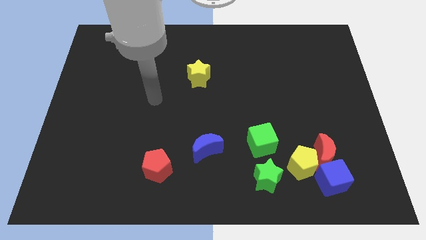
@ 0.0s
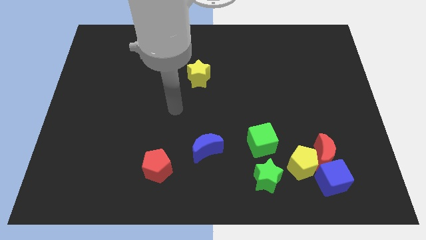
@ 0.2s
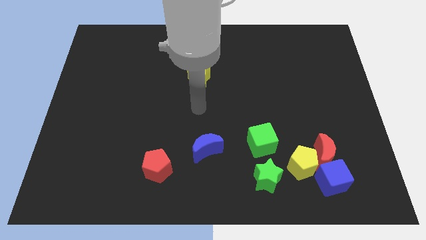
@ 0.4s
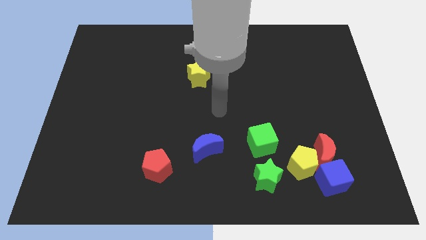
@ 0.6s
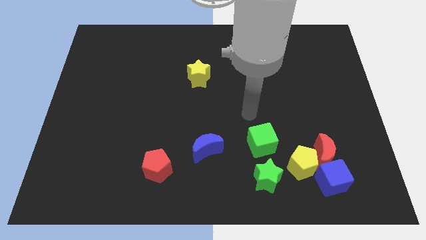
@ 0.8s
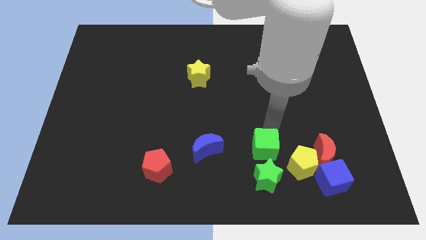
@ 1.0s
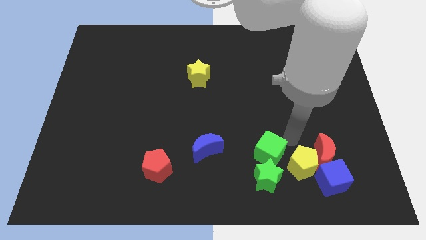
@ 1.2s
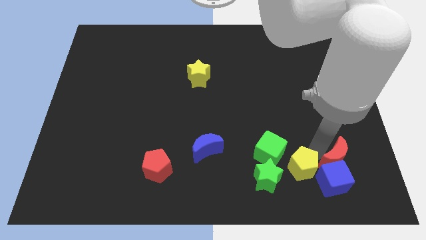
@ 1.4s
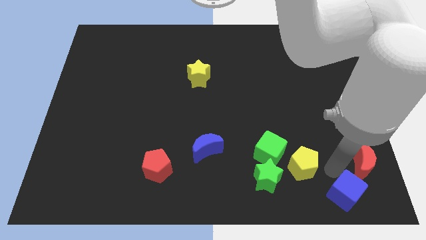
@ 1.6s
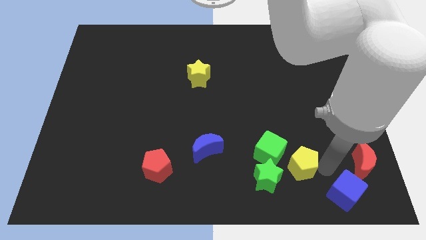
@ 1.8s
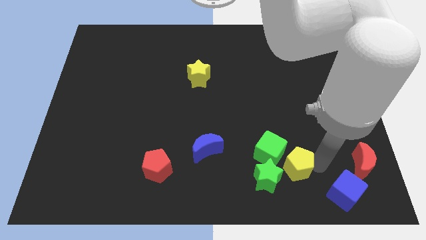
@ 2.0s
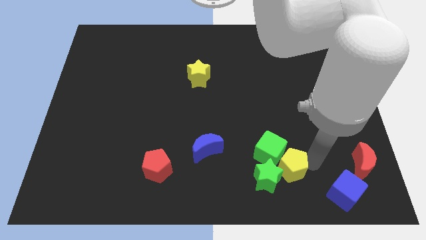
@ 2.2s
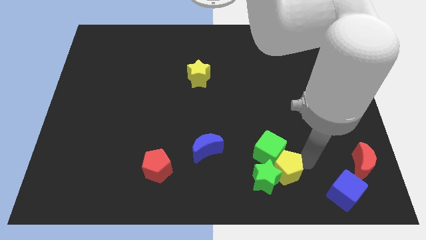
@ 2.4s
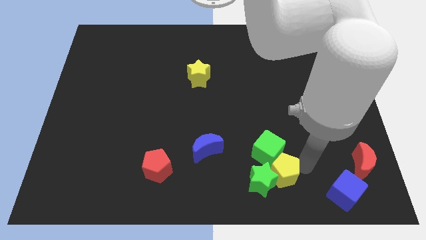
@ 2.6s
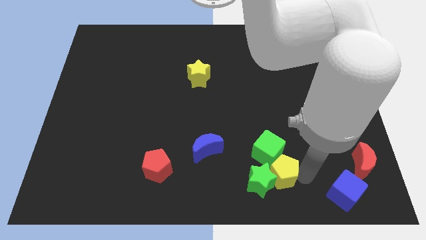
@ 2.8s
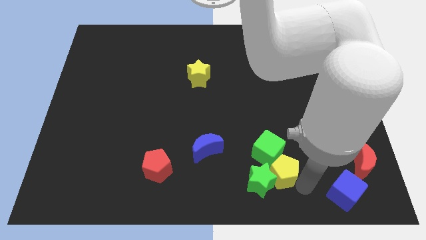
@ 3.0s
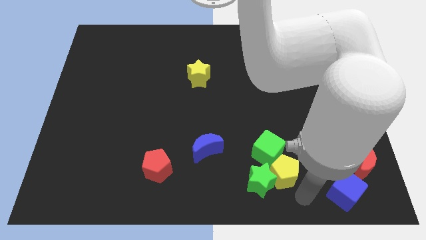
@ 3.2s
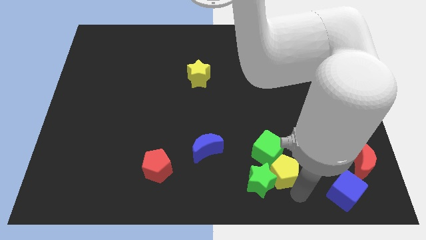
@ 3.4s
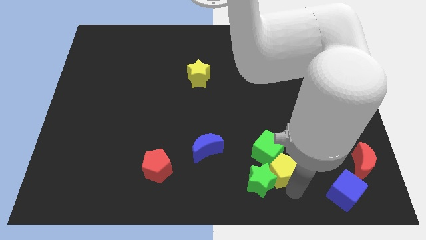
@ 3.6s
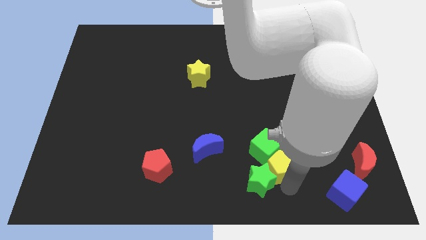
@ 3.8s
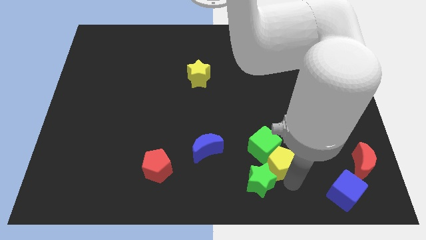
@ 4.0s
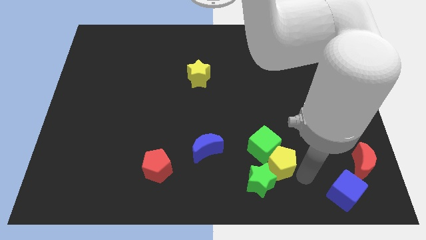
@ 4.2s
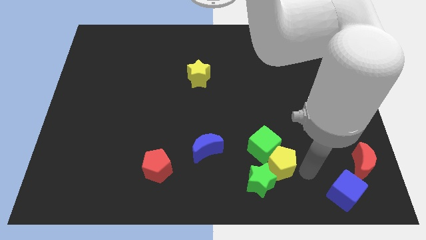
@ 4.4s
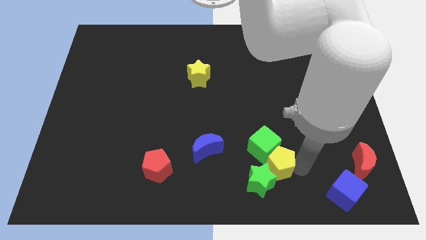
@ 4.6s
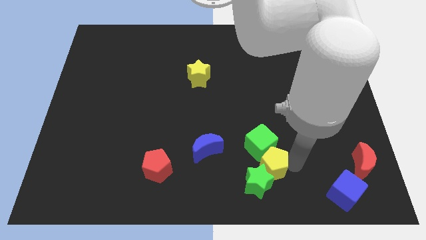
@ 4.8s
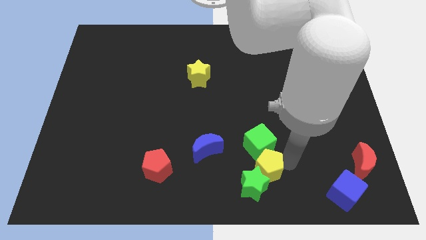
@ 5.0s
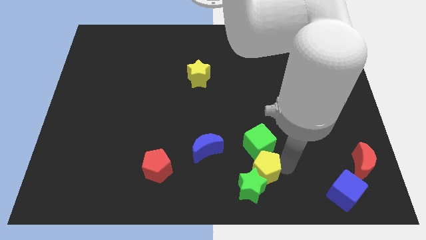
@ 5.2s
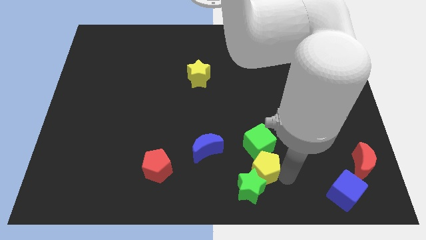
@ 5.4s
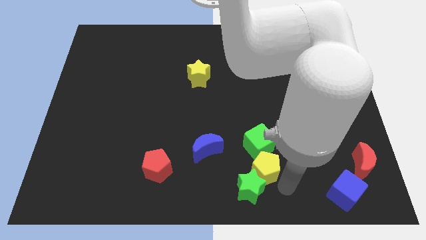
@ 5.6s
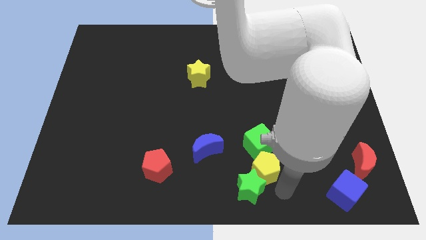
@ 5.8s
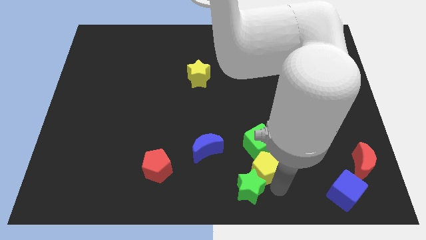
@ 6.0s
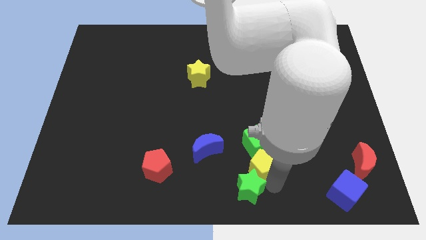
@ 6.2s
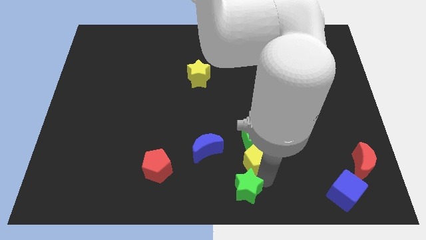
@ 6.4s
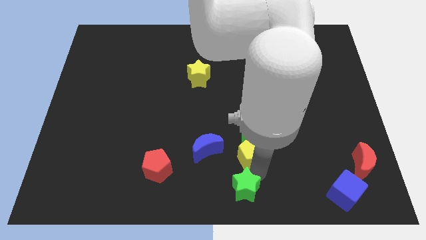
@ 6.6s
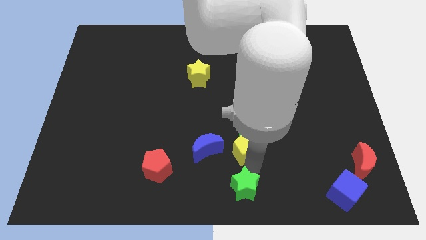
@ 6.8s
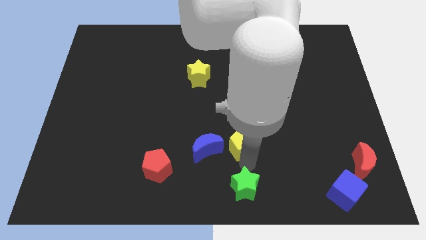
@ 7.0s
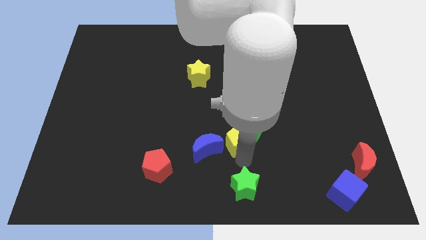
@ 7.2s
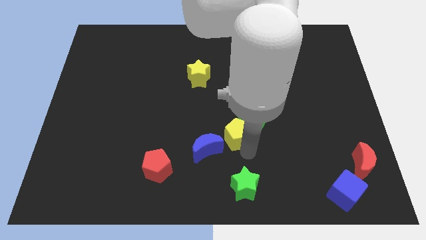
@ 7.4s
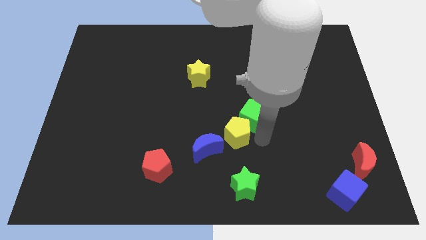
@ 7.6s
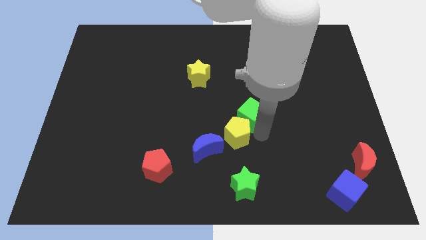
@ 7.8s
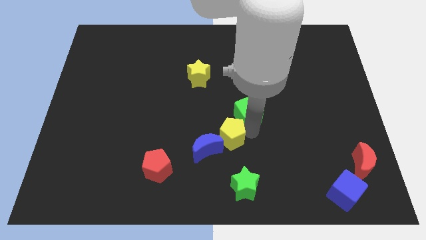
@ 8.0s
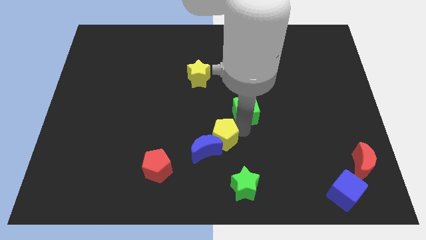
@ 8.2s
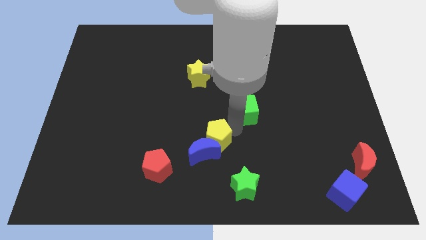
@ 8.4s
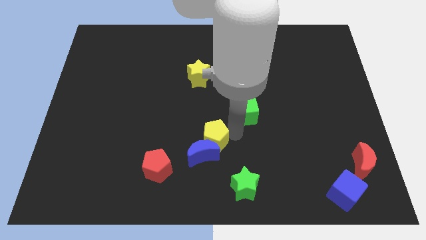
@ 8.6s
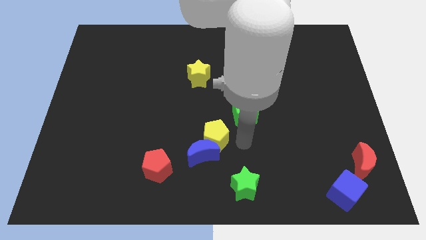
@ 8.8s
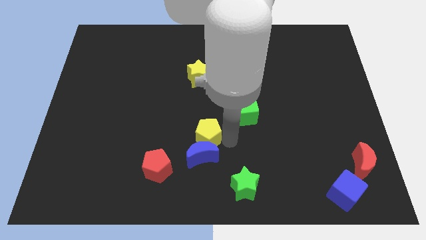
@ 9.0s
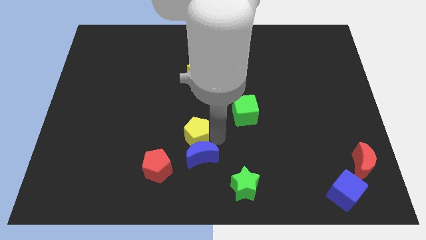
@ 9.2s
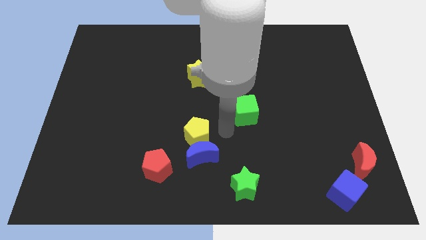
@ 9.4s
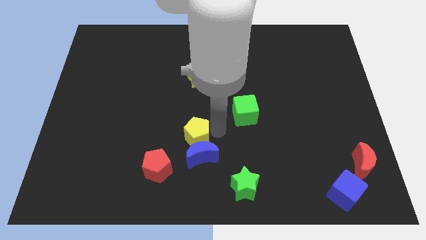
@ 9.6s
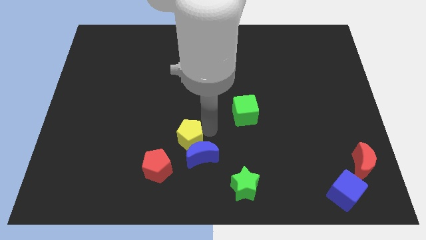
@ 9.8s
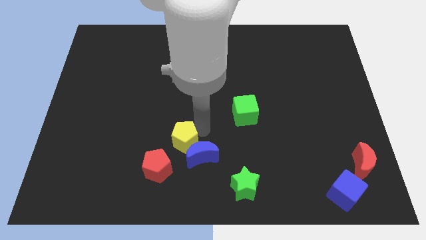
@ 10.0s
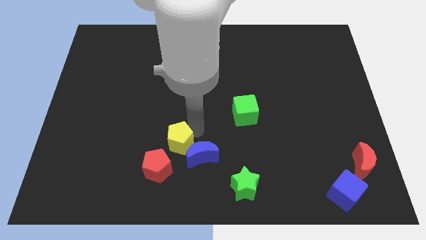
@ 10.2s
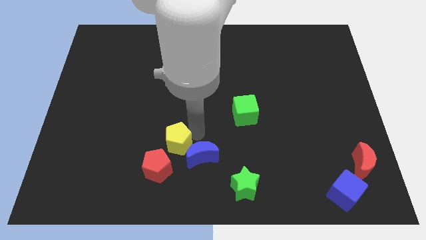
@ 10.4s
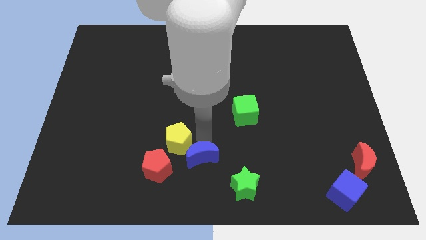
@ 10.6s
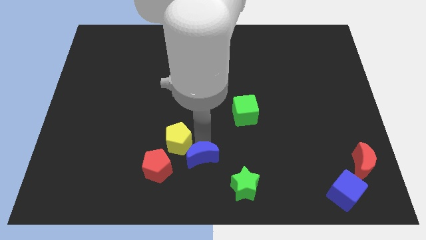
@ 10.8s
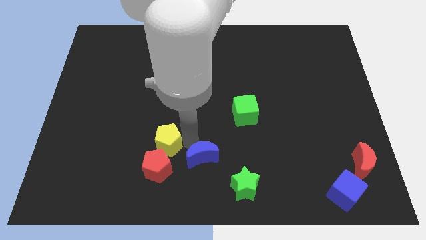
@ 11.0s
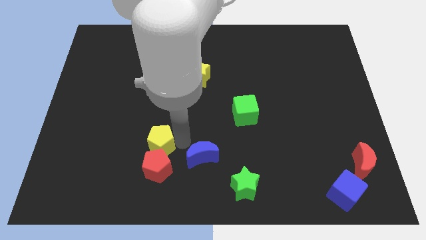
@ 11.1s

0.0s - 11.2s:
put the yellow pentagon to the top left side of the red pentagon

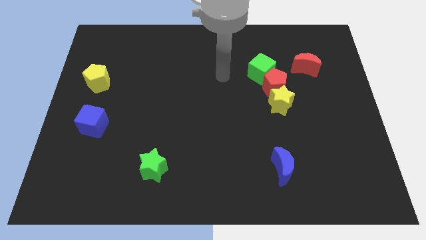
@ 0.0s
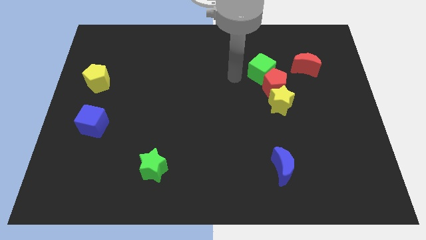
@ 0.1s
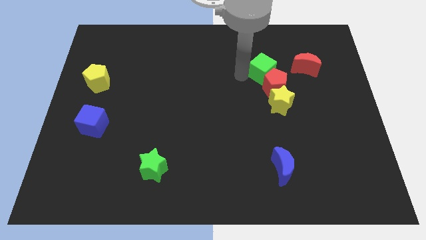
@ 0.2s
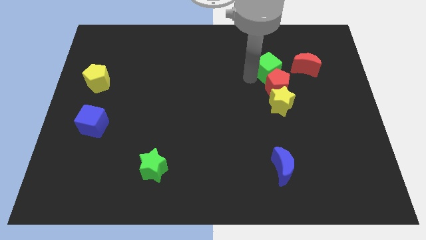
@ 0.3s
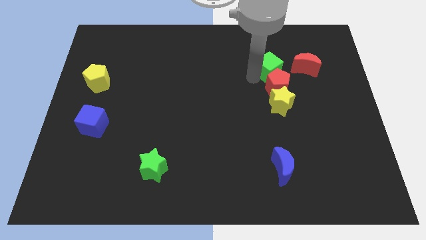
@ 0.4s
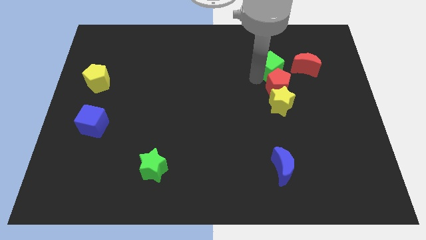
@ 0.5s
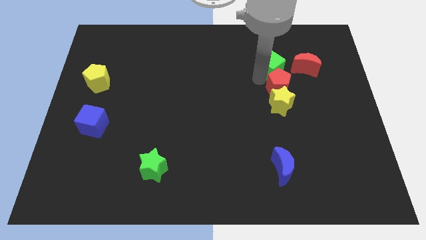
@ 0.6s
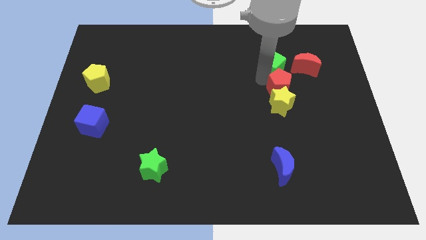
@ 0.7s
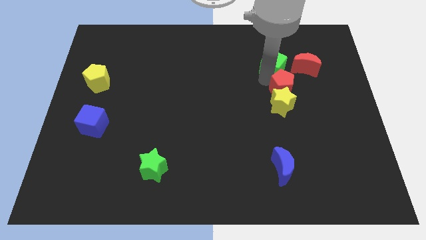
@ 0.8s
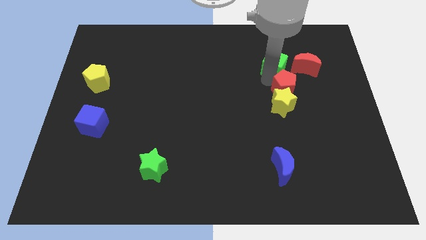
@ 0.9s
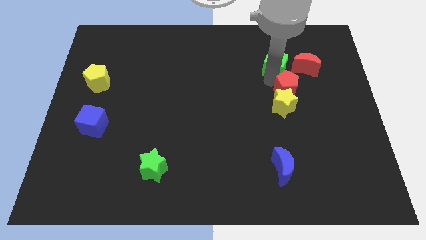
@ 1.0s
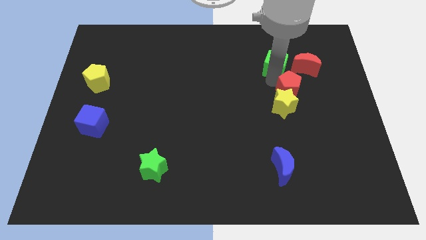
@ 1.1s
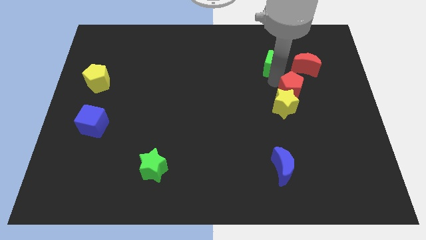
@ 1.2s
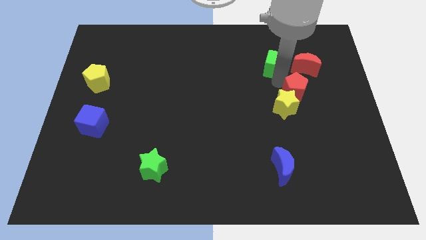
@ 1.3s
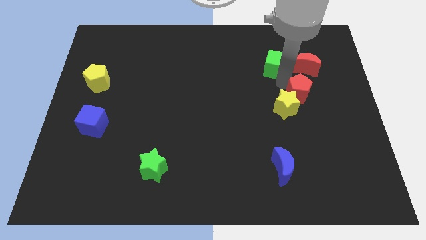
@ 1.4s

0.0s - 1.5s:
slide the red pentagon just right of the yellow star
